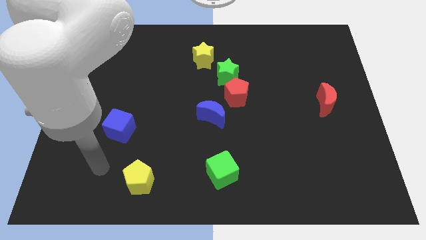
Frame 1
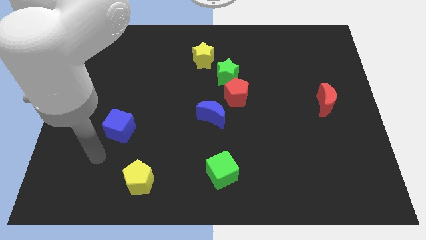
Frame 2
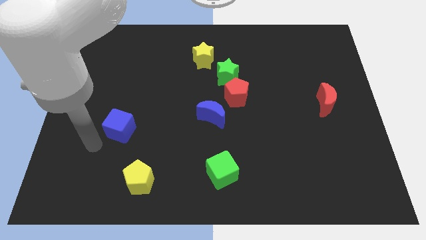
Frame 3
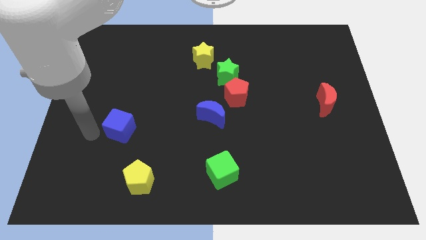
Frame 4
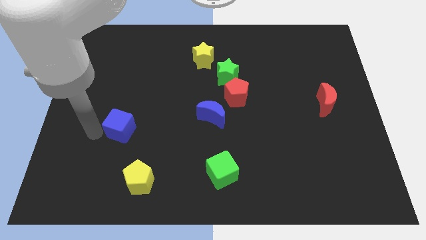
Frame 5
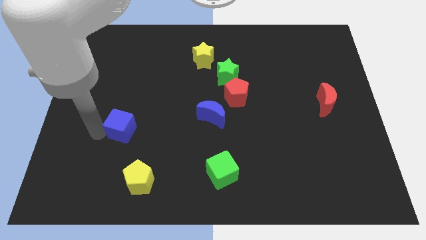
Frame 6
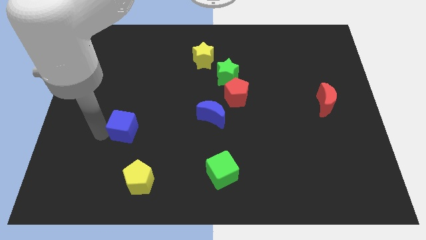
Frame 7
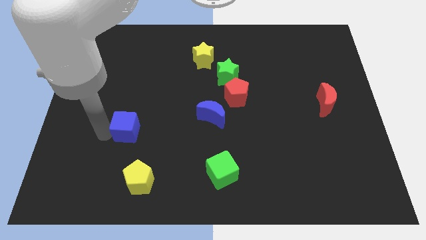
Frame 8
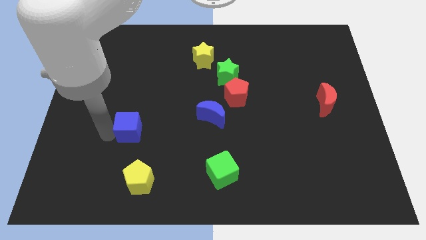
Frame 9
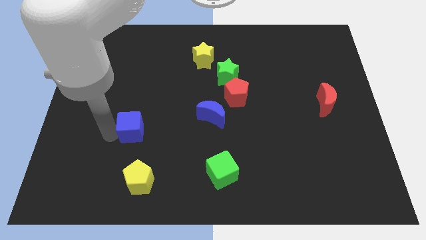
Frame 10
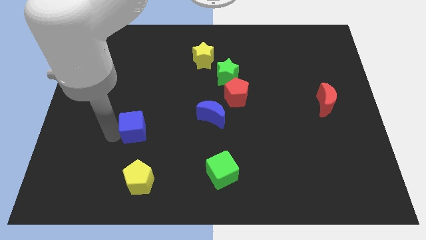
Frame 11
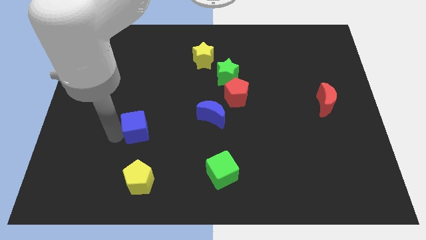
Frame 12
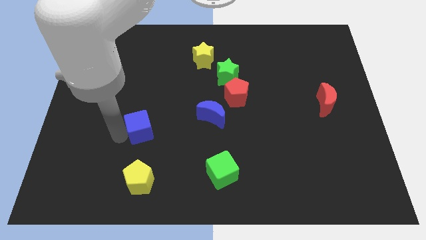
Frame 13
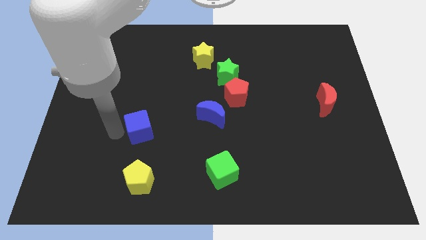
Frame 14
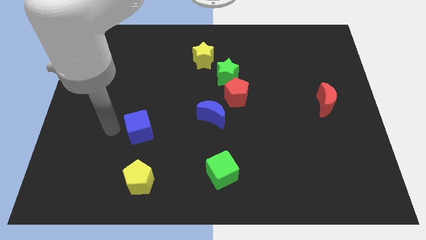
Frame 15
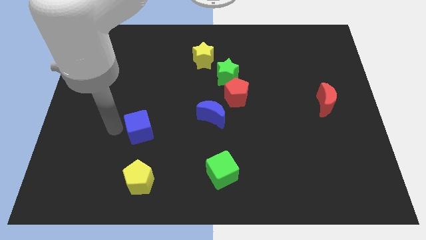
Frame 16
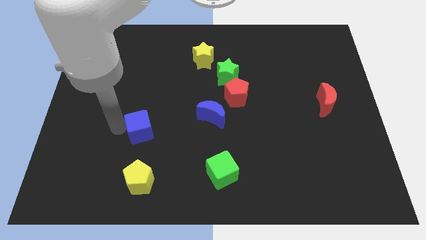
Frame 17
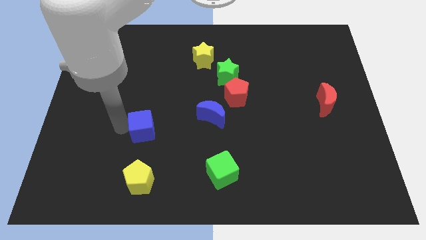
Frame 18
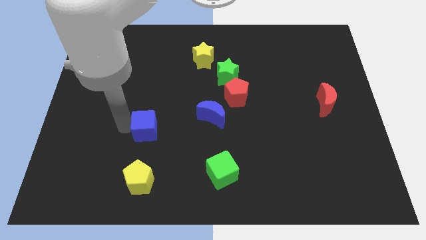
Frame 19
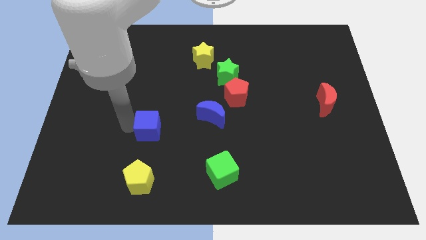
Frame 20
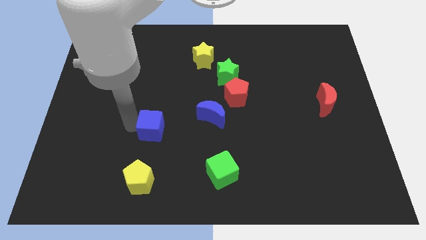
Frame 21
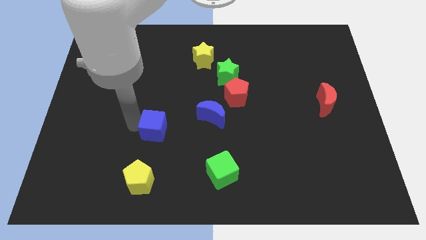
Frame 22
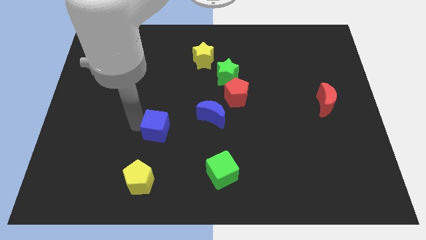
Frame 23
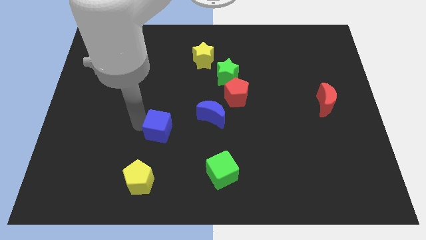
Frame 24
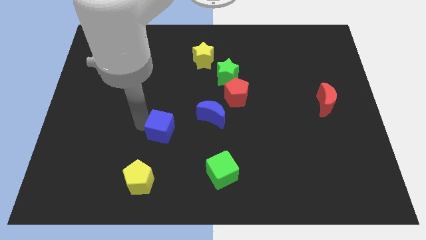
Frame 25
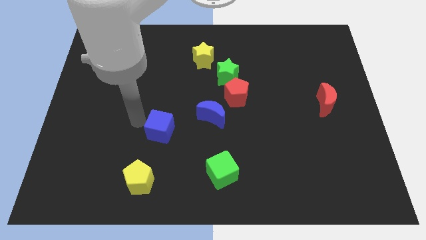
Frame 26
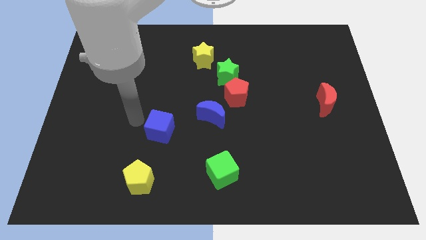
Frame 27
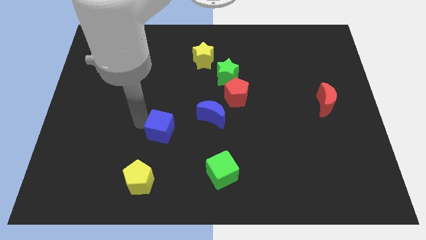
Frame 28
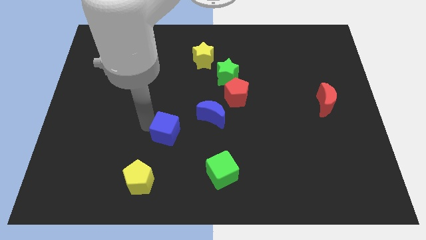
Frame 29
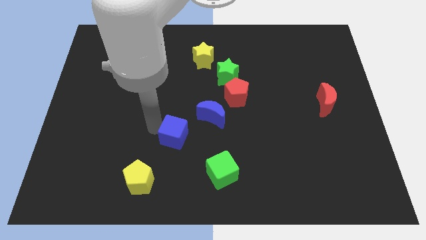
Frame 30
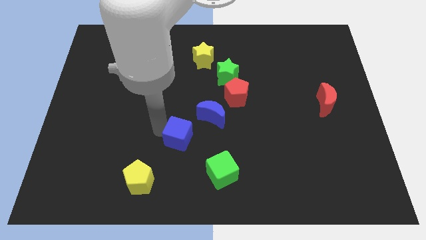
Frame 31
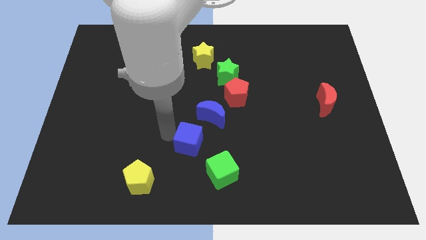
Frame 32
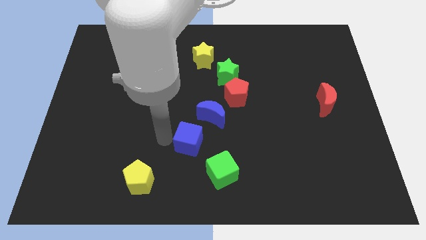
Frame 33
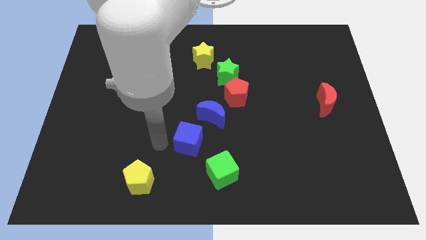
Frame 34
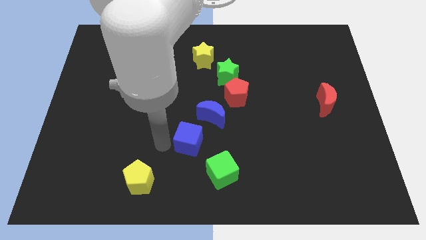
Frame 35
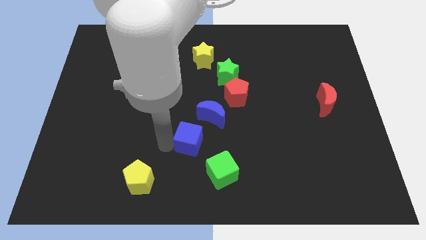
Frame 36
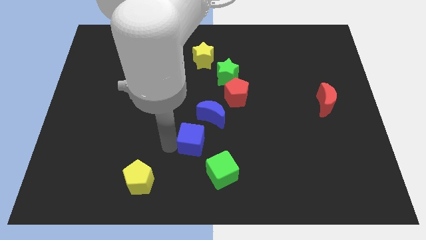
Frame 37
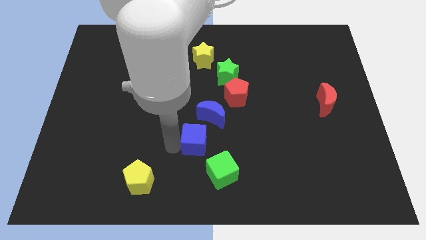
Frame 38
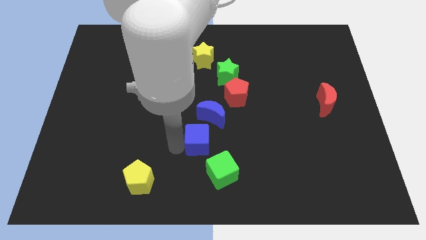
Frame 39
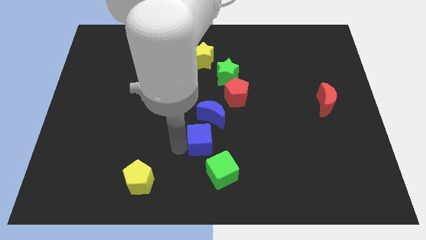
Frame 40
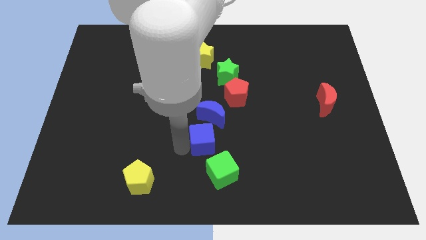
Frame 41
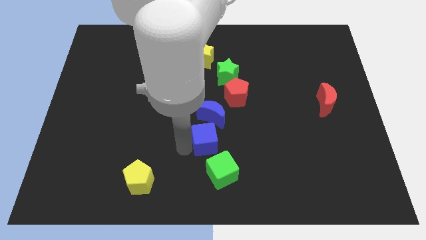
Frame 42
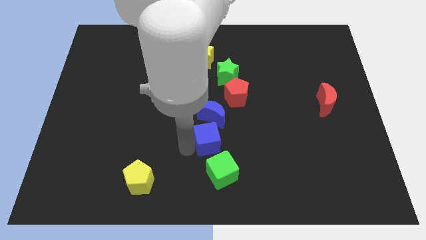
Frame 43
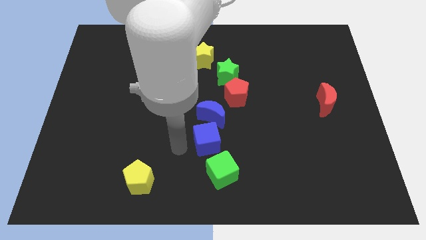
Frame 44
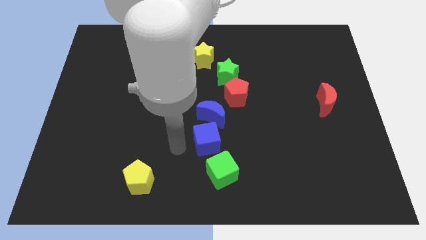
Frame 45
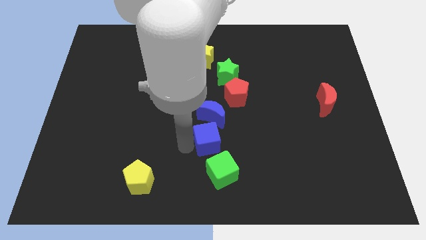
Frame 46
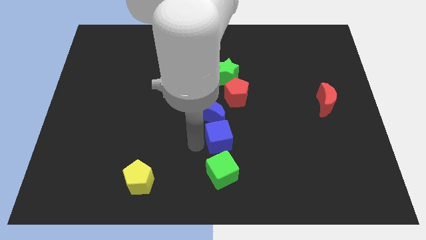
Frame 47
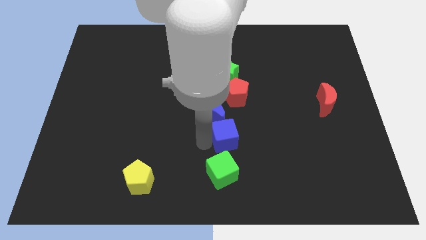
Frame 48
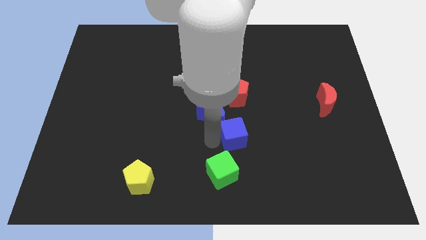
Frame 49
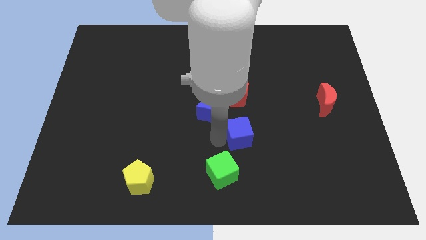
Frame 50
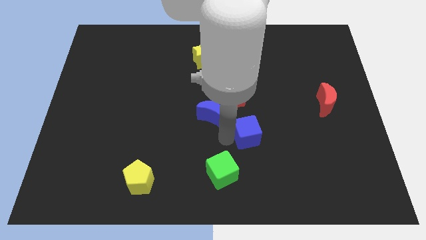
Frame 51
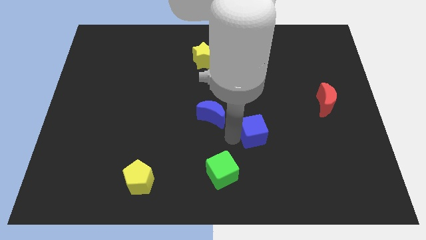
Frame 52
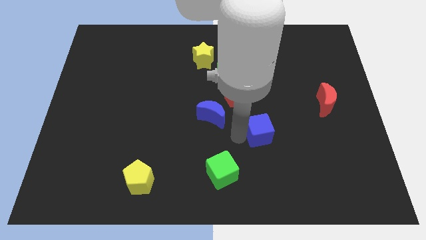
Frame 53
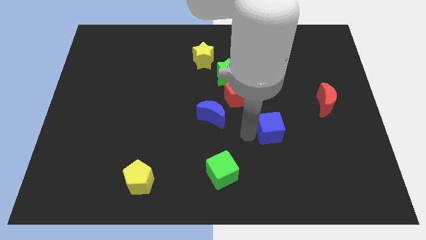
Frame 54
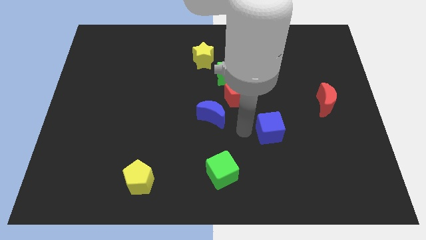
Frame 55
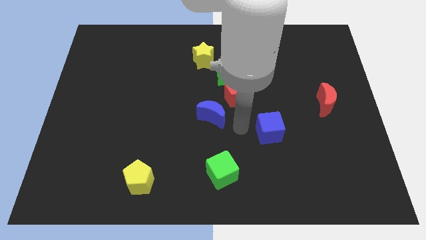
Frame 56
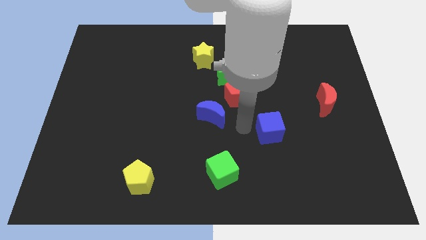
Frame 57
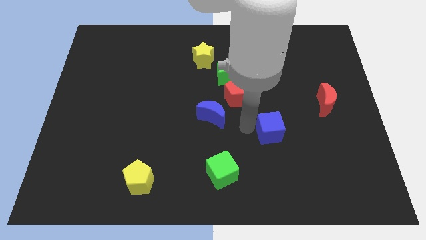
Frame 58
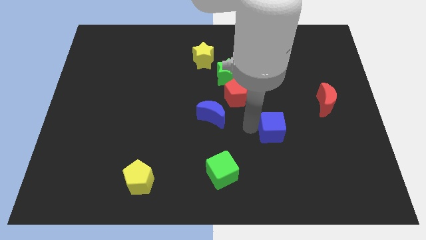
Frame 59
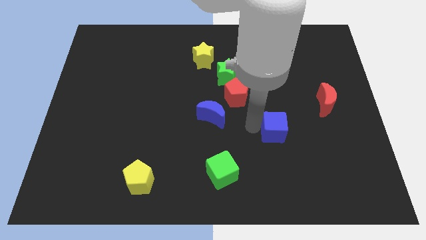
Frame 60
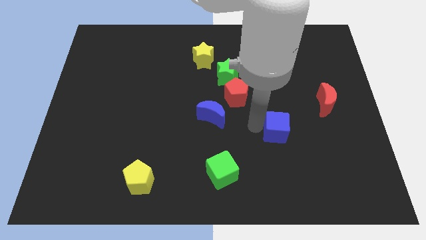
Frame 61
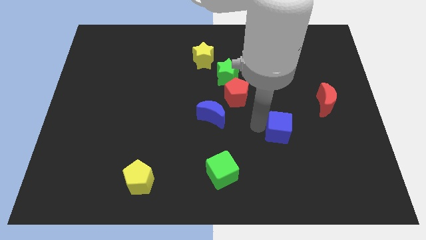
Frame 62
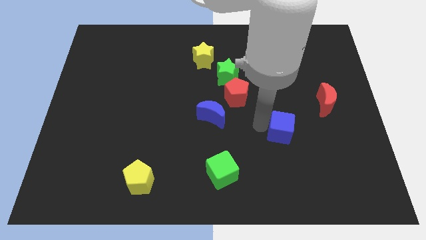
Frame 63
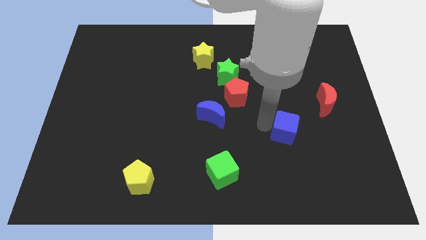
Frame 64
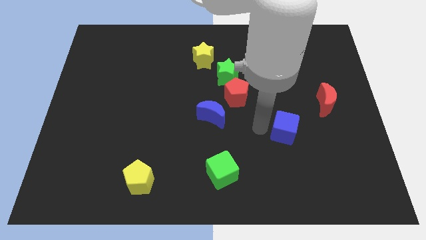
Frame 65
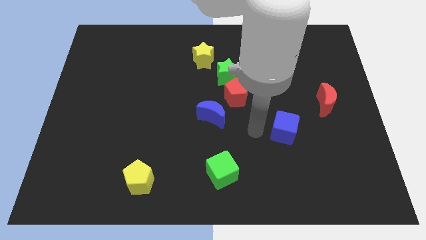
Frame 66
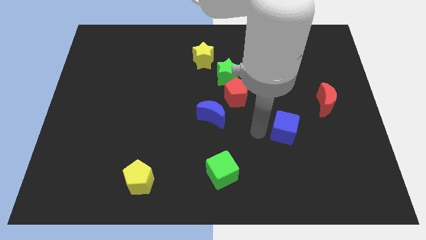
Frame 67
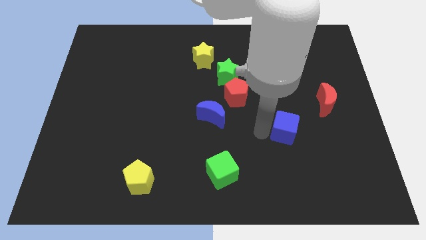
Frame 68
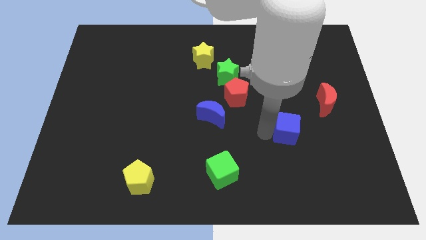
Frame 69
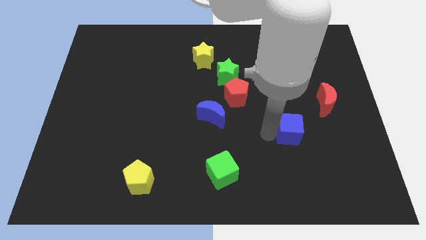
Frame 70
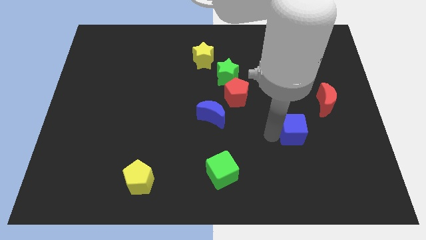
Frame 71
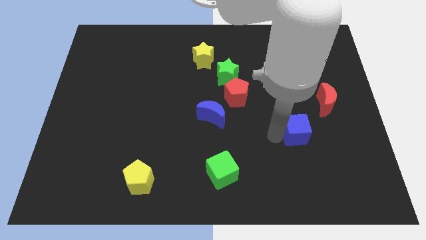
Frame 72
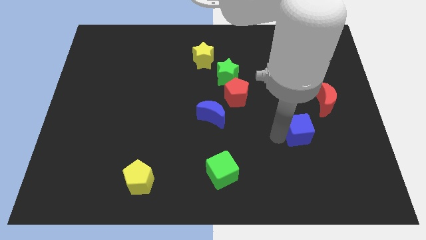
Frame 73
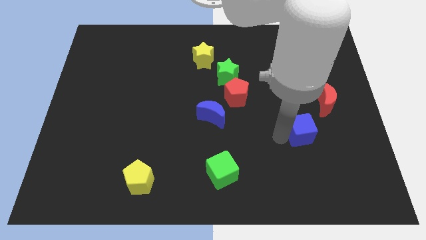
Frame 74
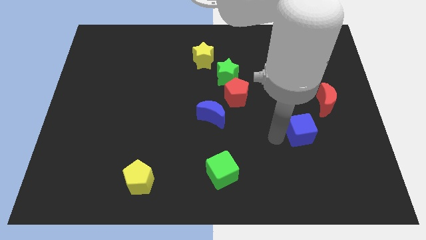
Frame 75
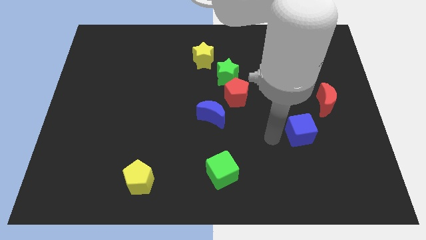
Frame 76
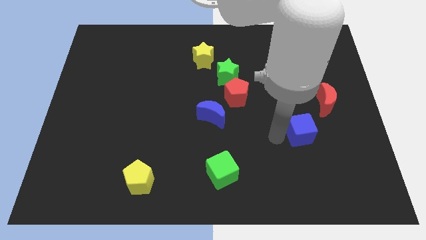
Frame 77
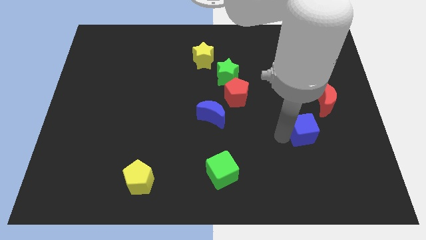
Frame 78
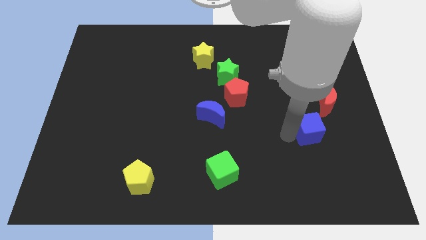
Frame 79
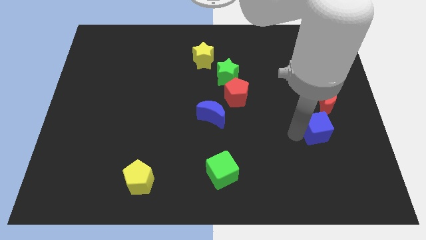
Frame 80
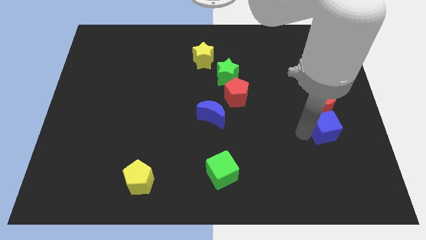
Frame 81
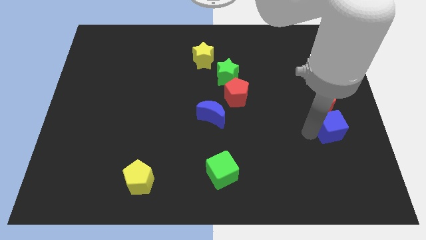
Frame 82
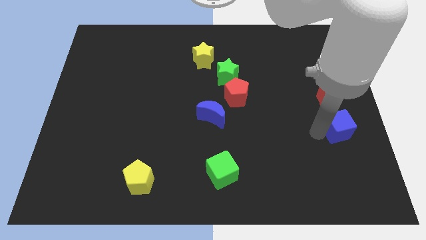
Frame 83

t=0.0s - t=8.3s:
push the blue cube to the center right
